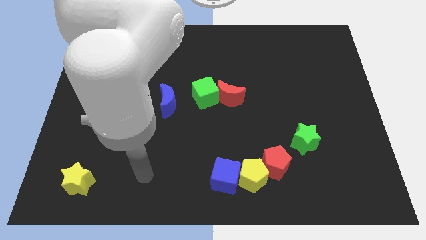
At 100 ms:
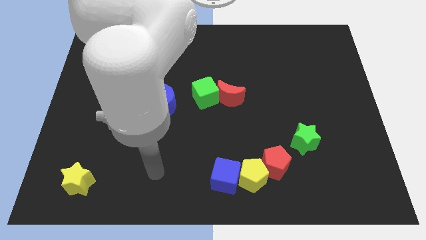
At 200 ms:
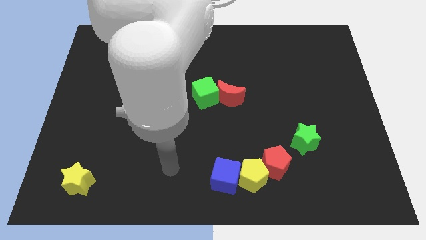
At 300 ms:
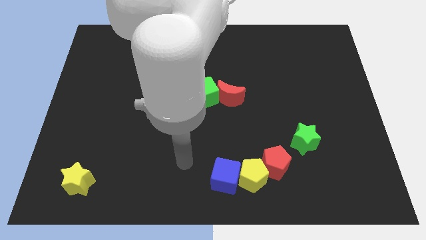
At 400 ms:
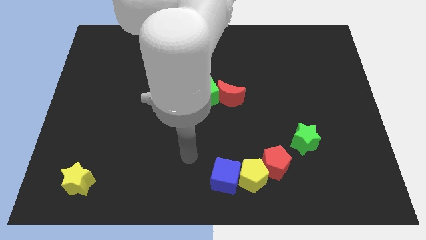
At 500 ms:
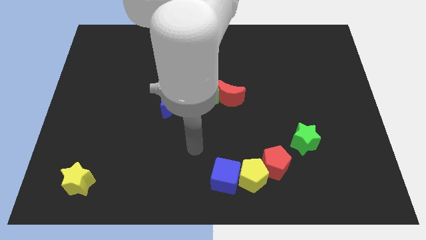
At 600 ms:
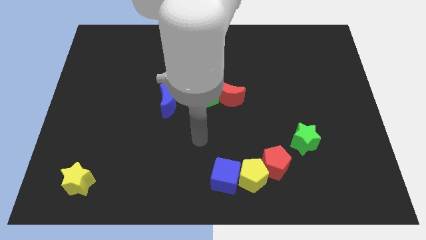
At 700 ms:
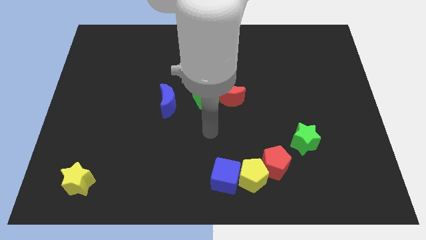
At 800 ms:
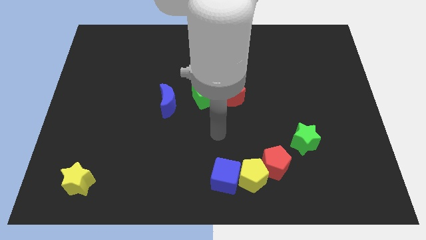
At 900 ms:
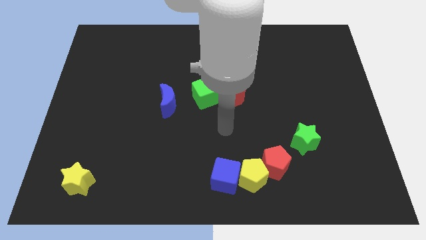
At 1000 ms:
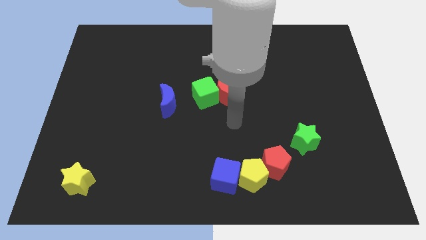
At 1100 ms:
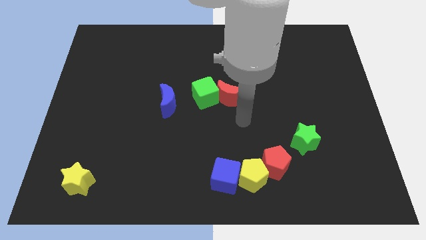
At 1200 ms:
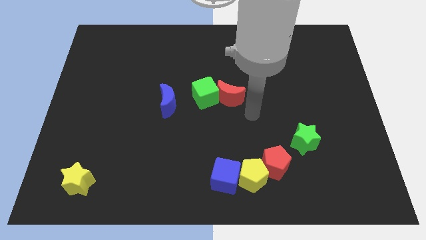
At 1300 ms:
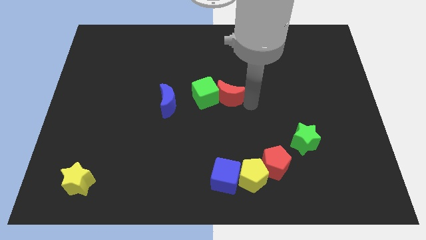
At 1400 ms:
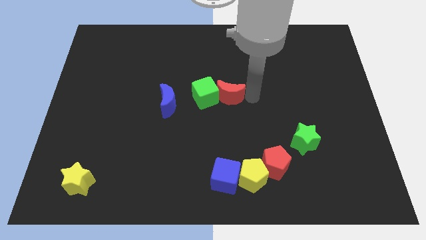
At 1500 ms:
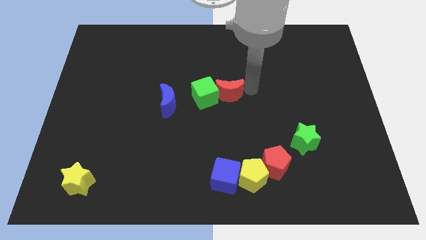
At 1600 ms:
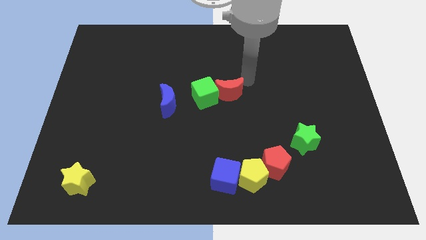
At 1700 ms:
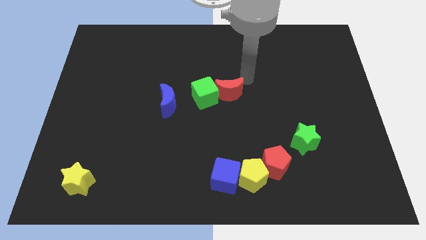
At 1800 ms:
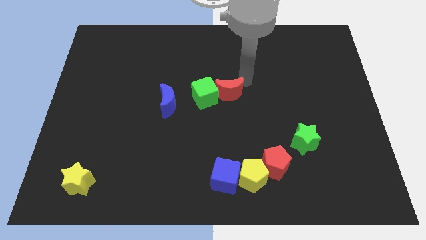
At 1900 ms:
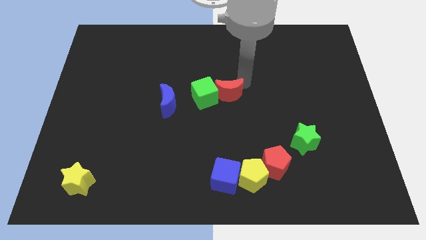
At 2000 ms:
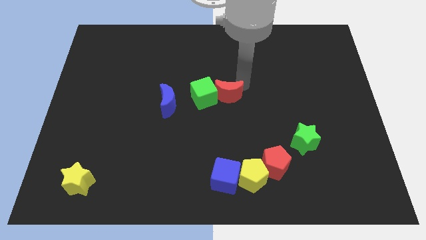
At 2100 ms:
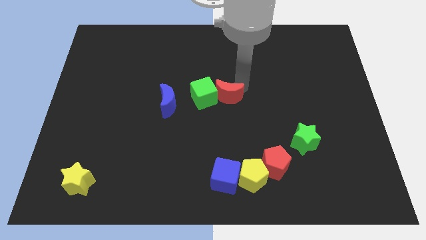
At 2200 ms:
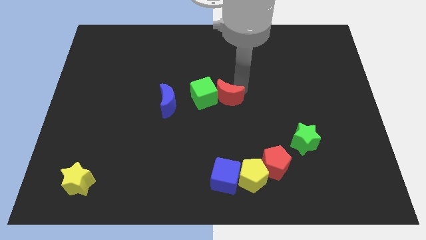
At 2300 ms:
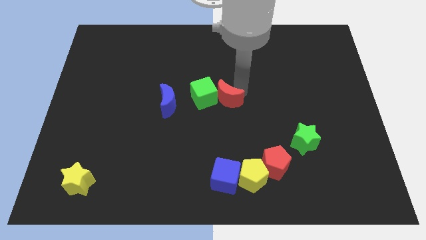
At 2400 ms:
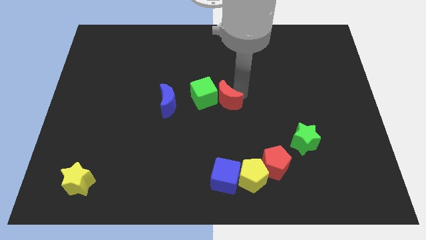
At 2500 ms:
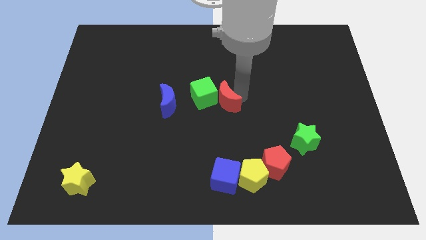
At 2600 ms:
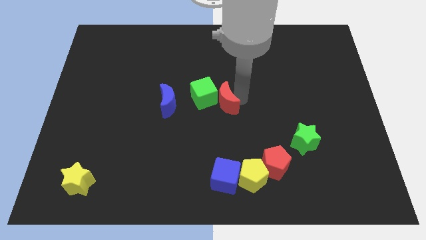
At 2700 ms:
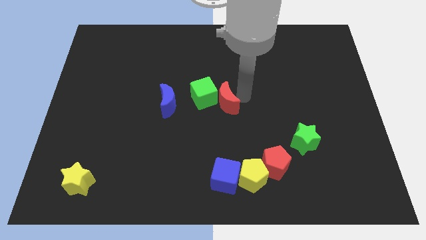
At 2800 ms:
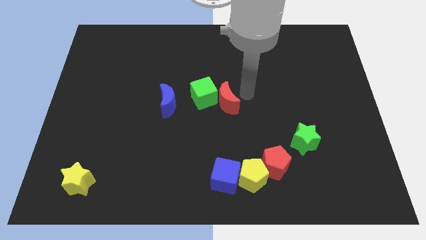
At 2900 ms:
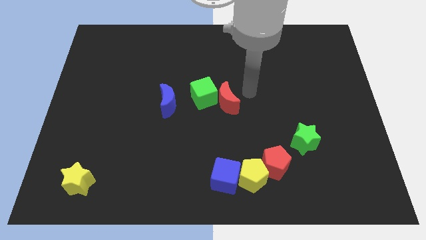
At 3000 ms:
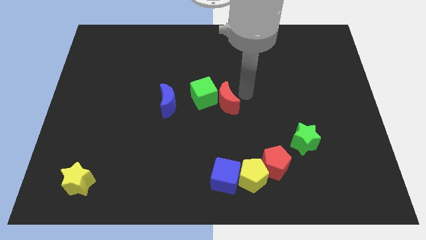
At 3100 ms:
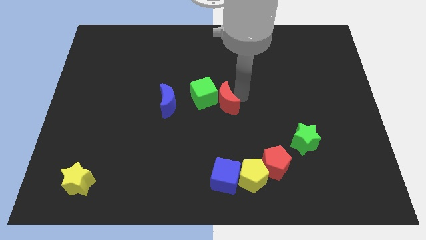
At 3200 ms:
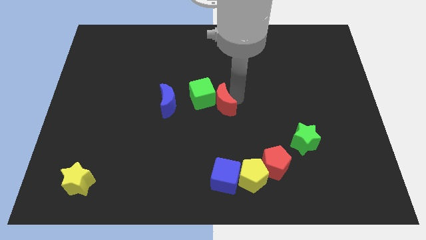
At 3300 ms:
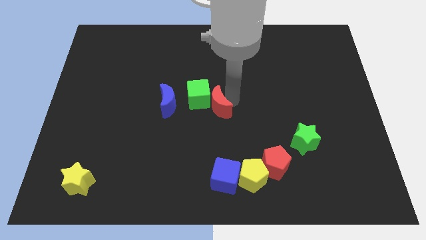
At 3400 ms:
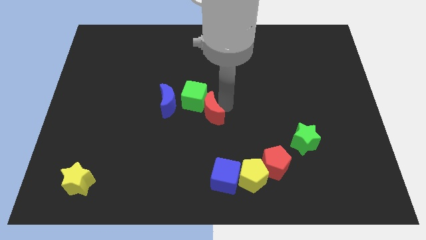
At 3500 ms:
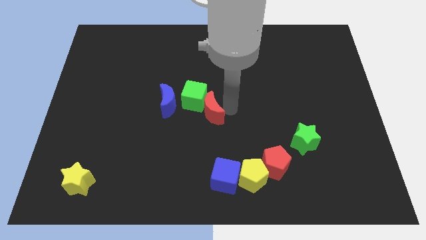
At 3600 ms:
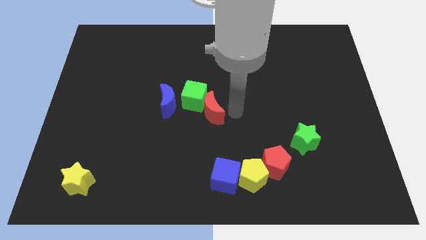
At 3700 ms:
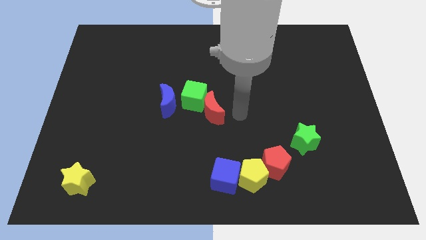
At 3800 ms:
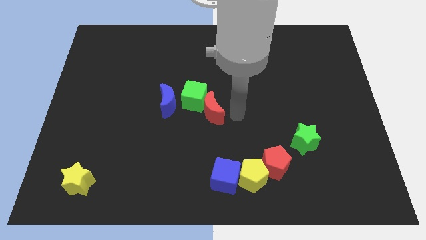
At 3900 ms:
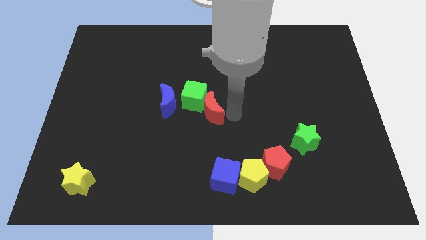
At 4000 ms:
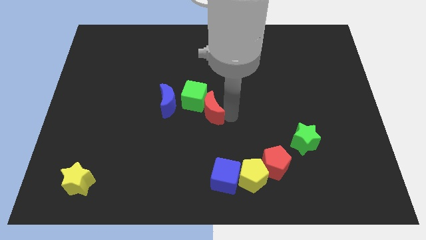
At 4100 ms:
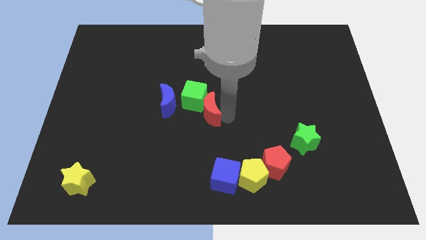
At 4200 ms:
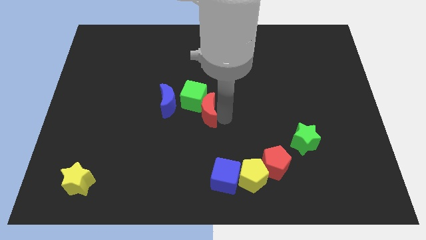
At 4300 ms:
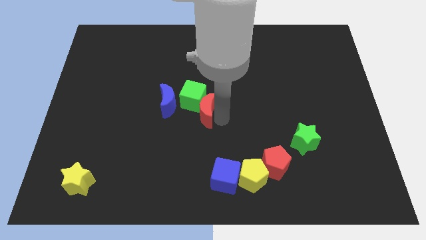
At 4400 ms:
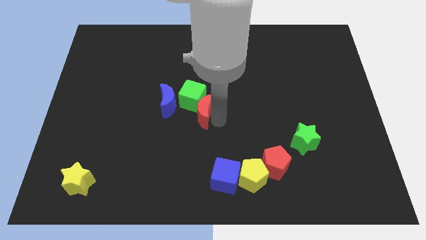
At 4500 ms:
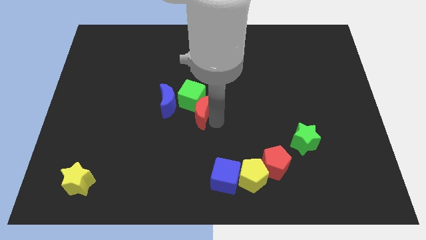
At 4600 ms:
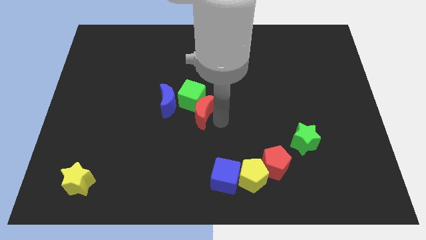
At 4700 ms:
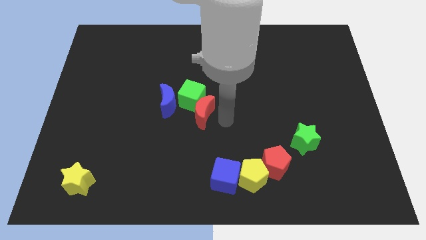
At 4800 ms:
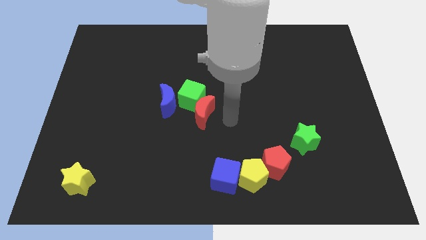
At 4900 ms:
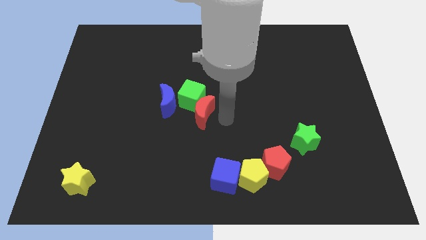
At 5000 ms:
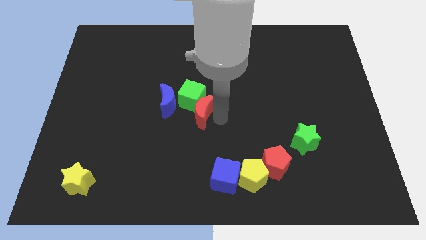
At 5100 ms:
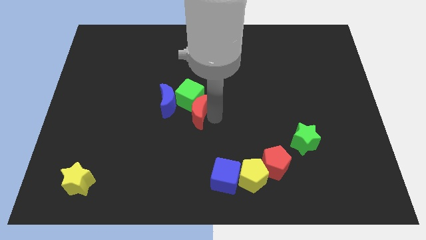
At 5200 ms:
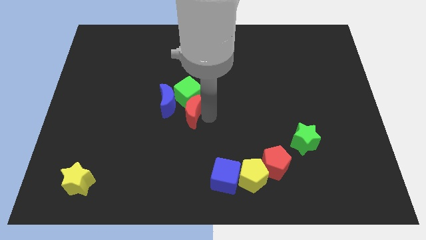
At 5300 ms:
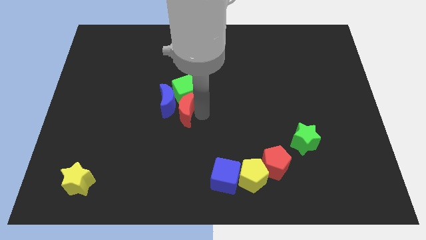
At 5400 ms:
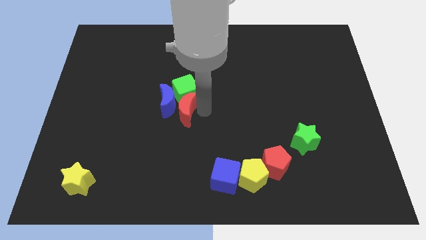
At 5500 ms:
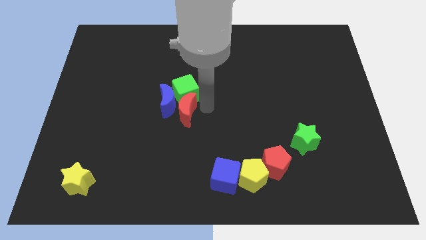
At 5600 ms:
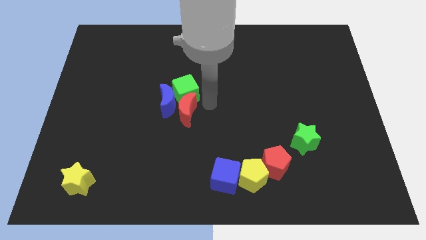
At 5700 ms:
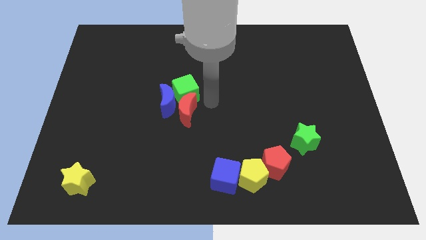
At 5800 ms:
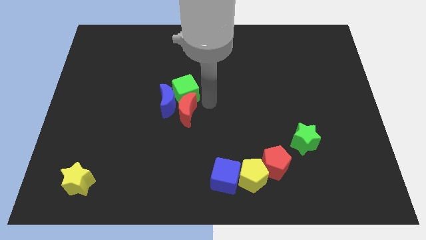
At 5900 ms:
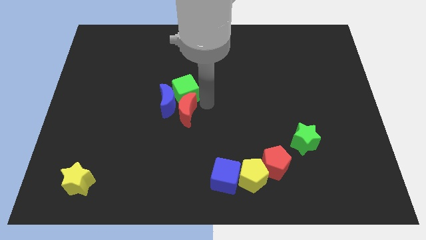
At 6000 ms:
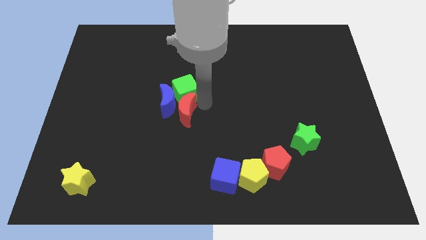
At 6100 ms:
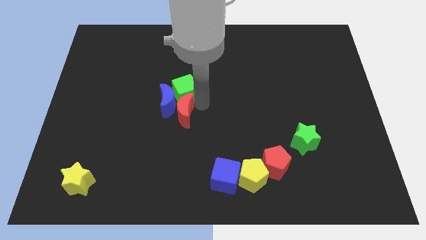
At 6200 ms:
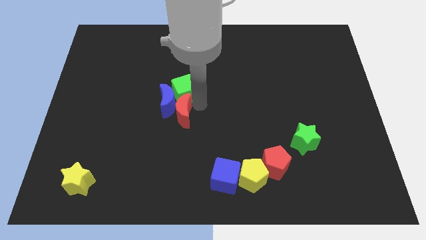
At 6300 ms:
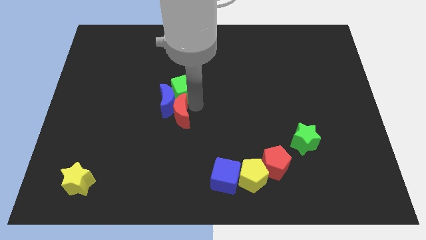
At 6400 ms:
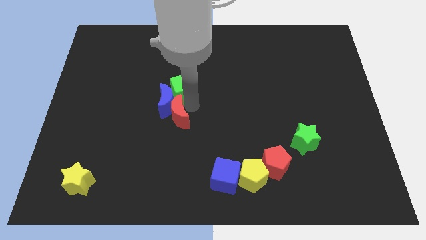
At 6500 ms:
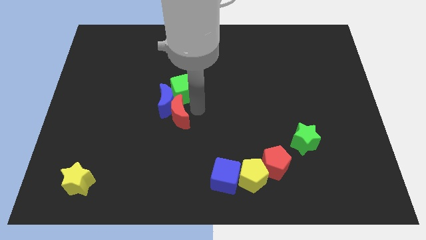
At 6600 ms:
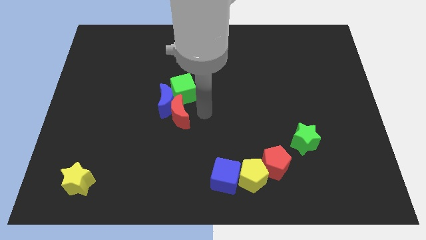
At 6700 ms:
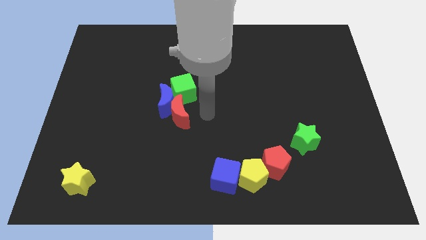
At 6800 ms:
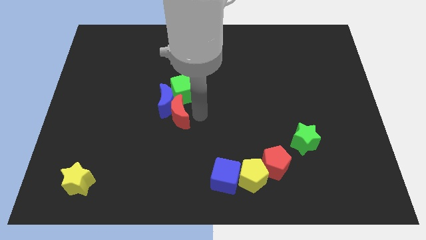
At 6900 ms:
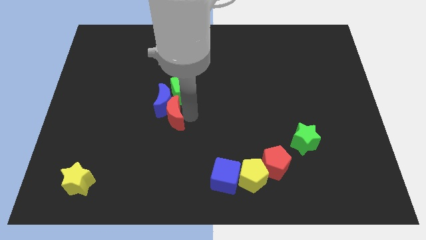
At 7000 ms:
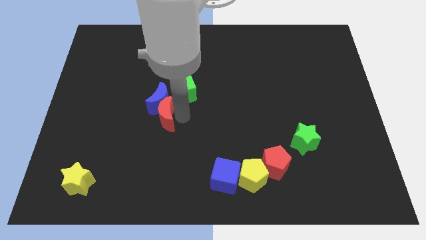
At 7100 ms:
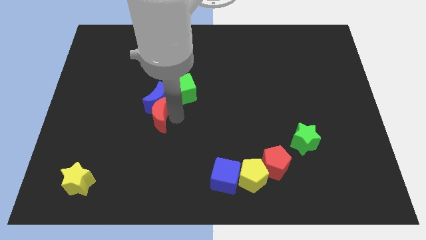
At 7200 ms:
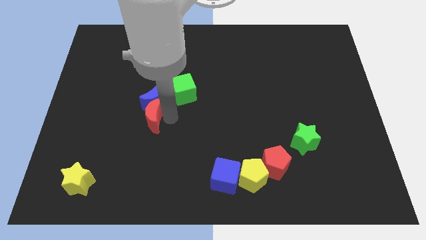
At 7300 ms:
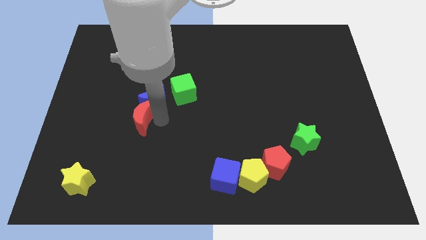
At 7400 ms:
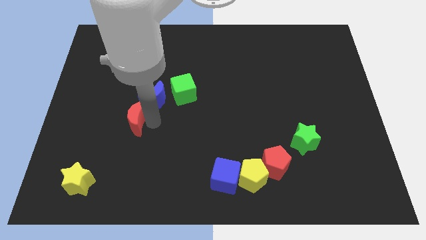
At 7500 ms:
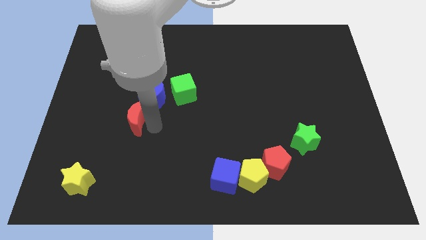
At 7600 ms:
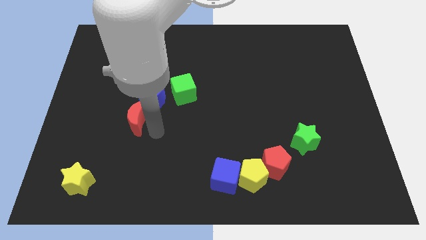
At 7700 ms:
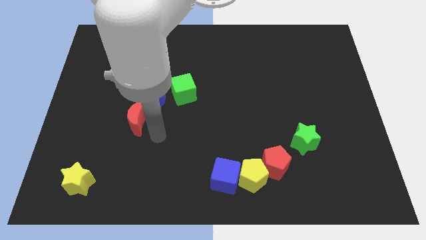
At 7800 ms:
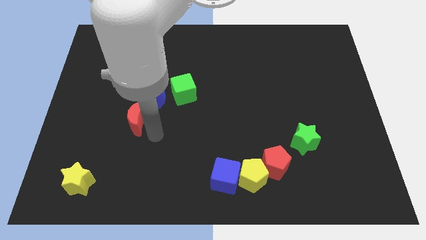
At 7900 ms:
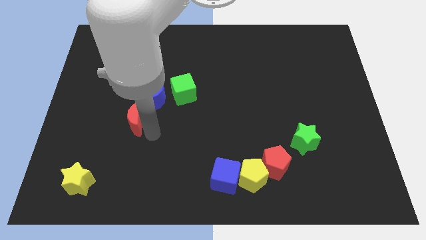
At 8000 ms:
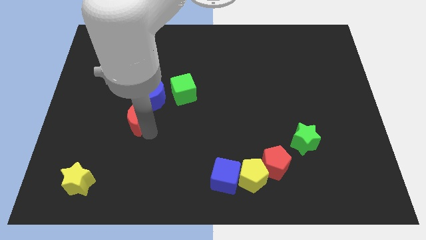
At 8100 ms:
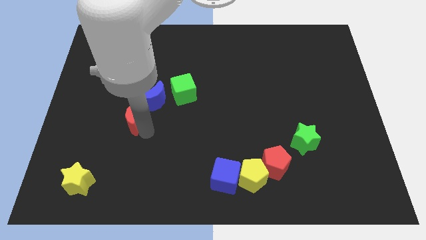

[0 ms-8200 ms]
move the red moon left

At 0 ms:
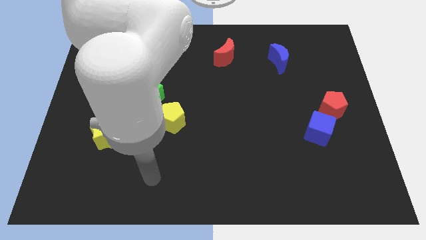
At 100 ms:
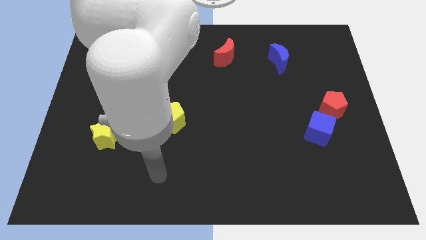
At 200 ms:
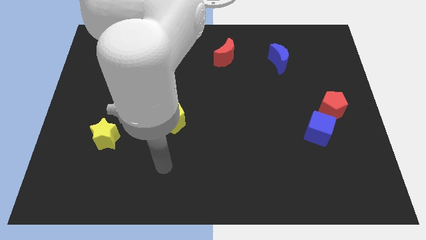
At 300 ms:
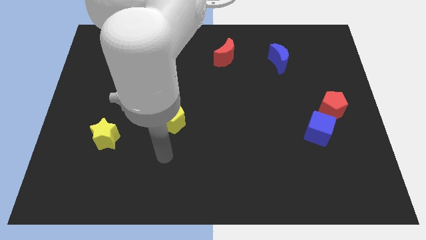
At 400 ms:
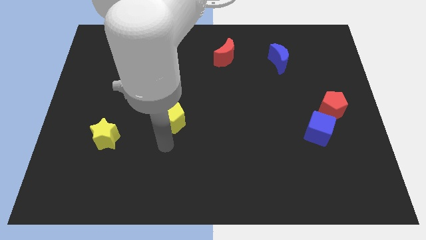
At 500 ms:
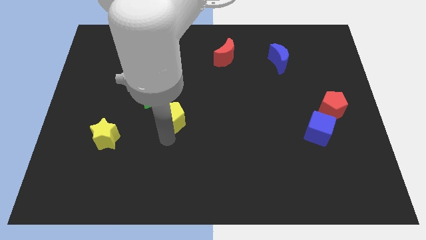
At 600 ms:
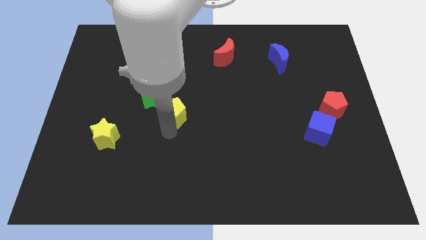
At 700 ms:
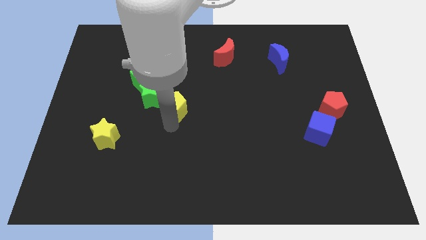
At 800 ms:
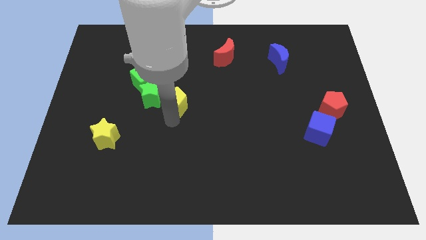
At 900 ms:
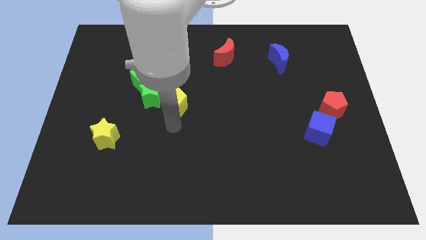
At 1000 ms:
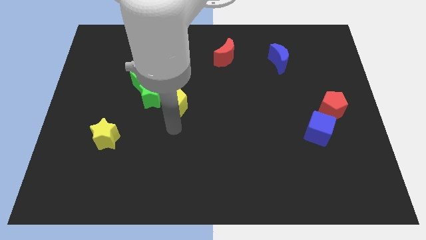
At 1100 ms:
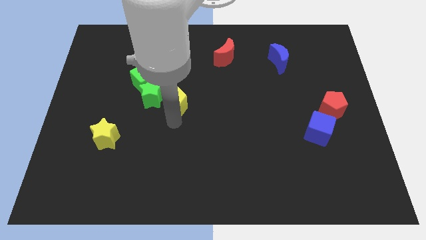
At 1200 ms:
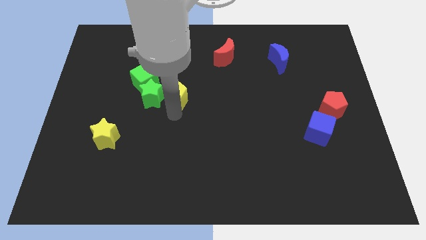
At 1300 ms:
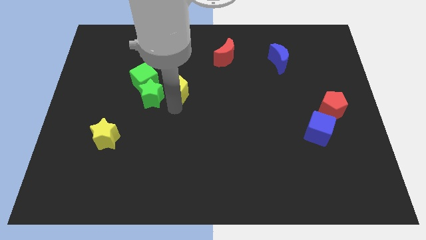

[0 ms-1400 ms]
move the yellow pentagon up a little
